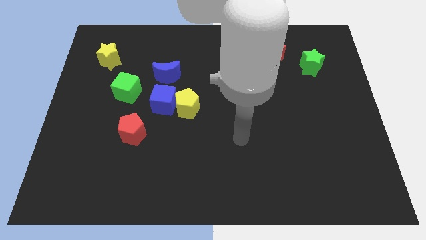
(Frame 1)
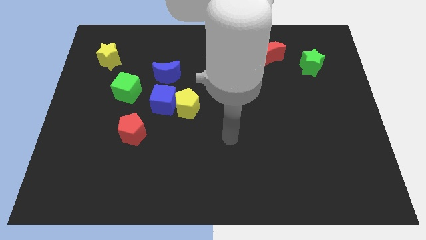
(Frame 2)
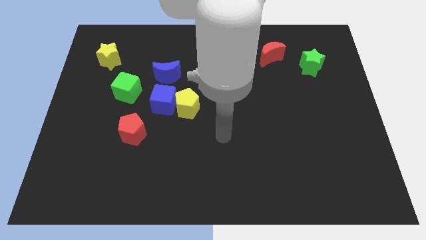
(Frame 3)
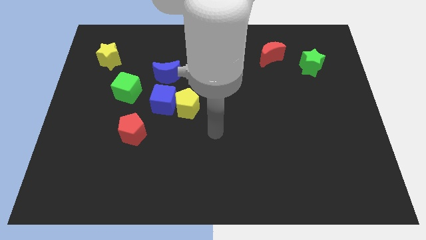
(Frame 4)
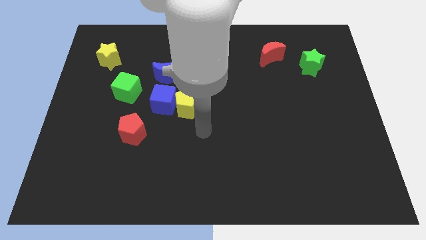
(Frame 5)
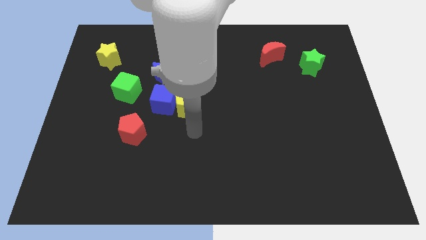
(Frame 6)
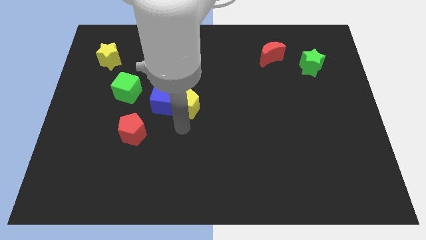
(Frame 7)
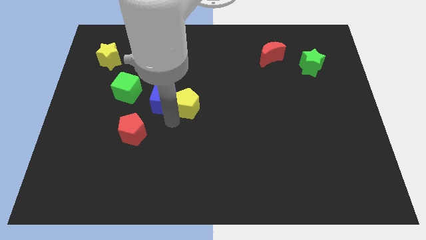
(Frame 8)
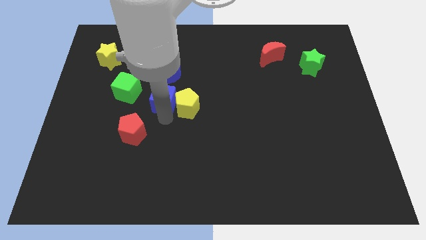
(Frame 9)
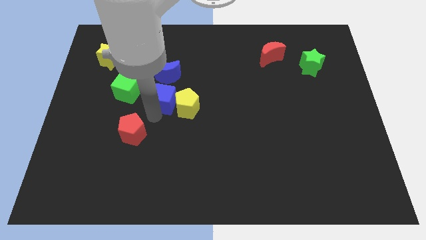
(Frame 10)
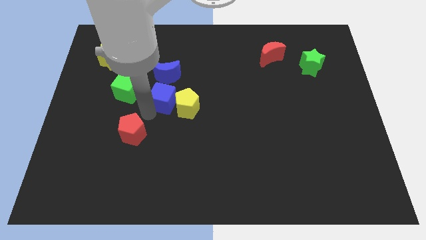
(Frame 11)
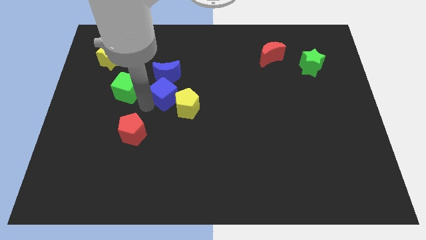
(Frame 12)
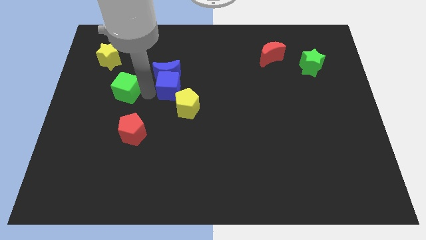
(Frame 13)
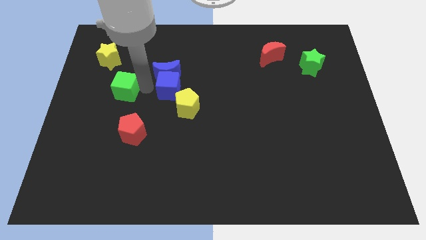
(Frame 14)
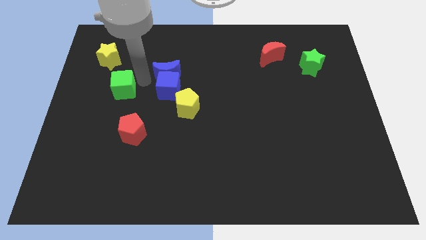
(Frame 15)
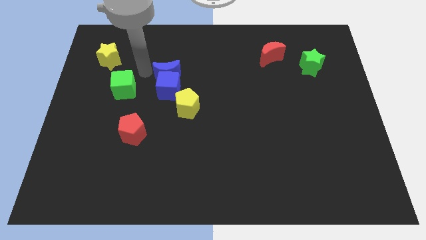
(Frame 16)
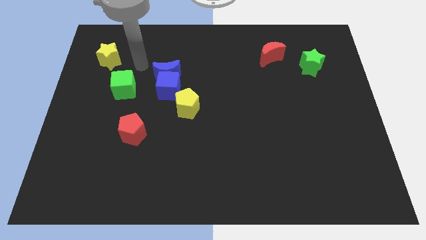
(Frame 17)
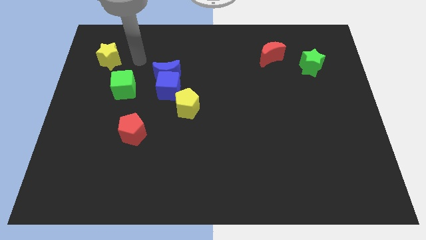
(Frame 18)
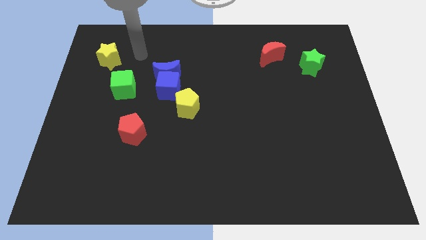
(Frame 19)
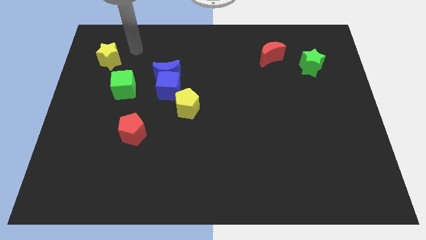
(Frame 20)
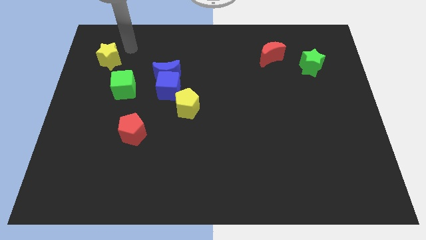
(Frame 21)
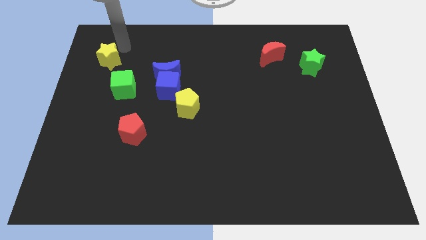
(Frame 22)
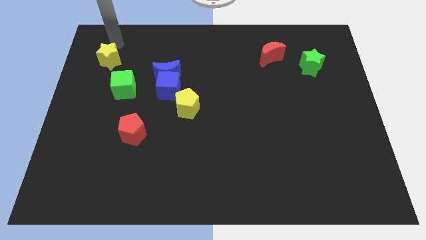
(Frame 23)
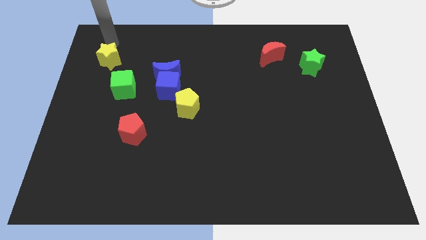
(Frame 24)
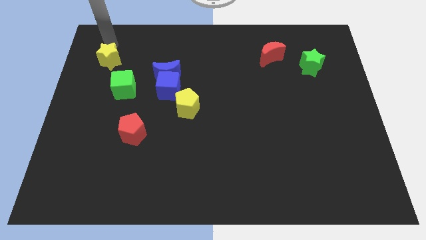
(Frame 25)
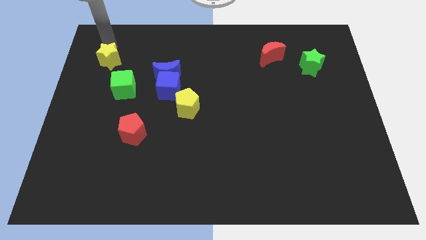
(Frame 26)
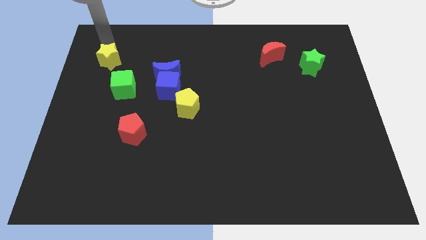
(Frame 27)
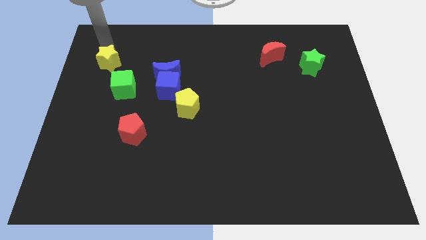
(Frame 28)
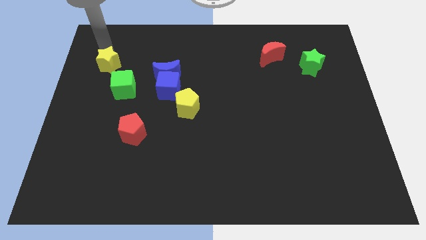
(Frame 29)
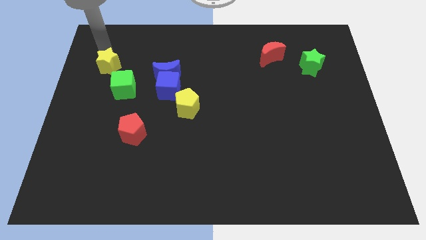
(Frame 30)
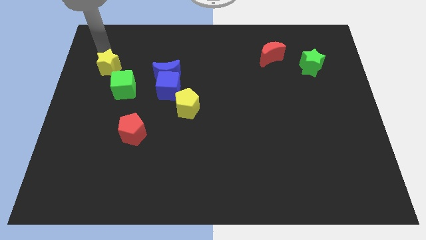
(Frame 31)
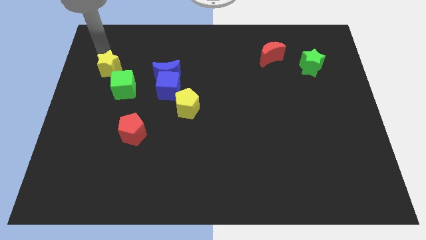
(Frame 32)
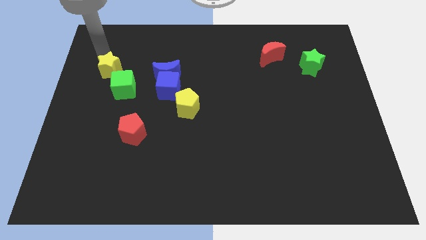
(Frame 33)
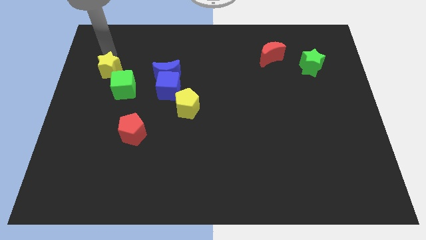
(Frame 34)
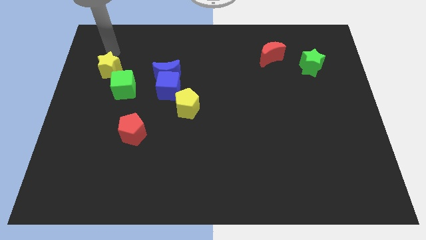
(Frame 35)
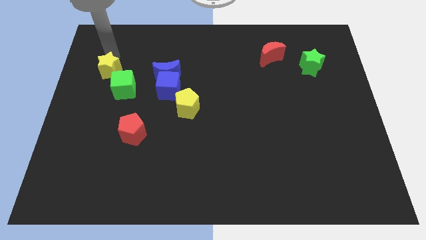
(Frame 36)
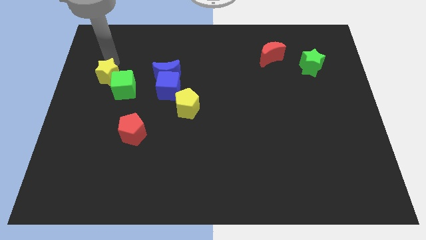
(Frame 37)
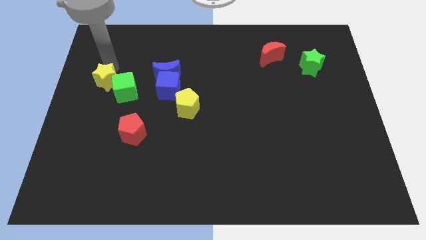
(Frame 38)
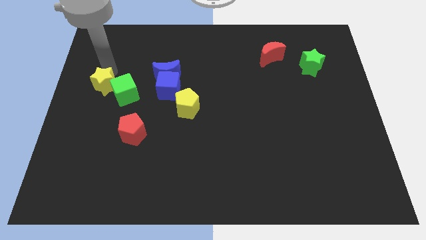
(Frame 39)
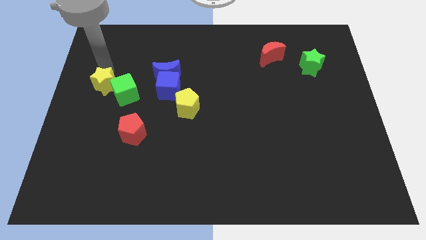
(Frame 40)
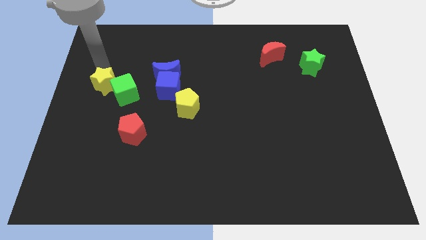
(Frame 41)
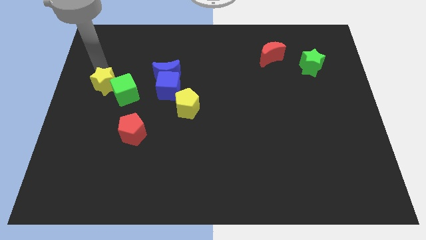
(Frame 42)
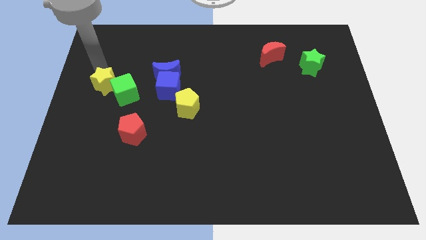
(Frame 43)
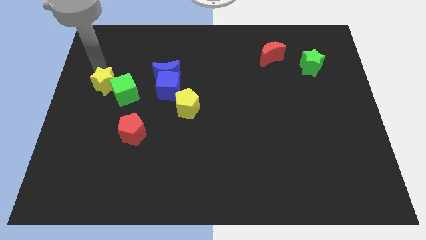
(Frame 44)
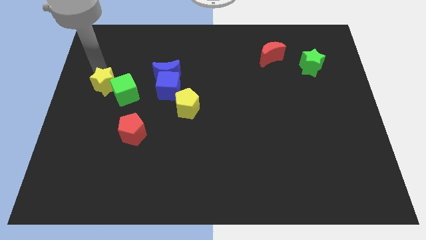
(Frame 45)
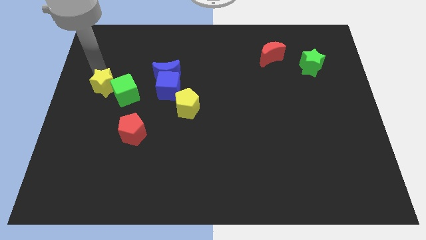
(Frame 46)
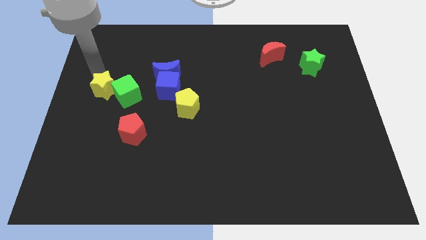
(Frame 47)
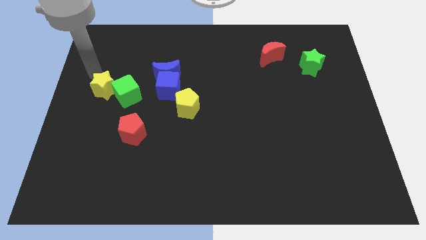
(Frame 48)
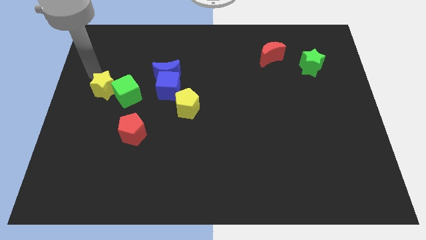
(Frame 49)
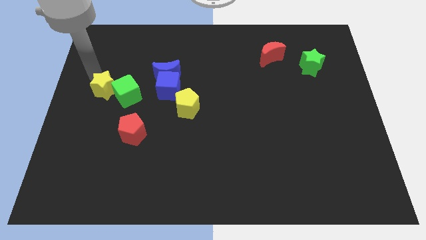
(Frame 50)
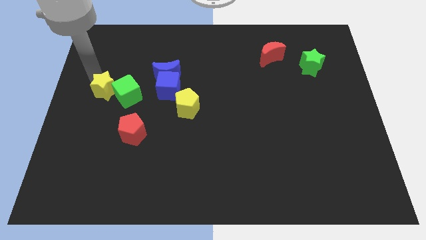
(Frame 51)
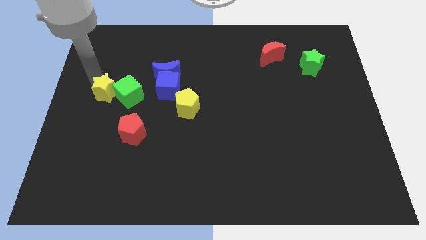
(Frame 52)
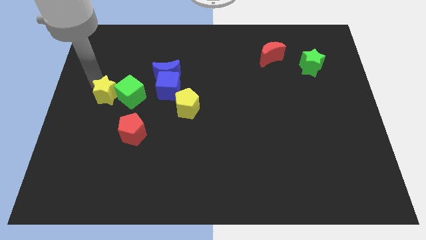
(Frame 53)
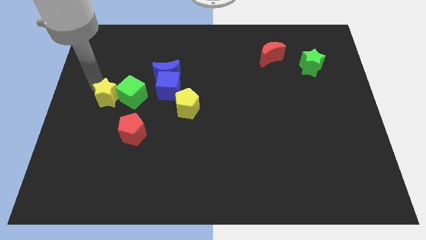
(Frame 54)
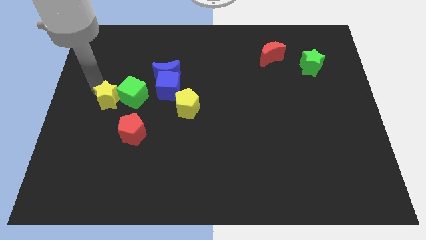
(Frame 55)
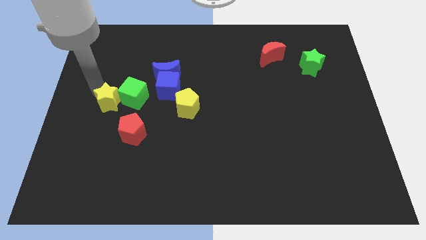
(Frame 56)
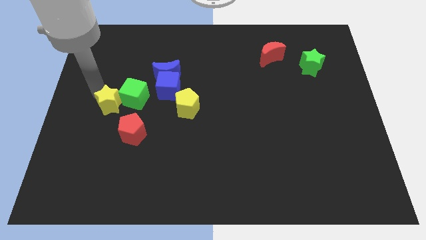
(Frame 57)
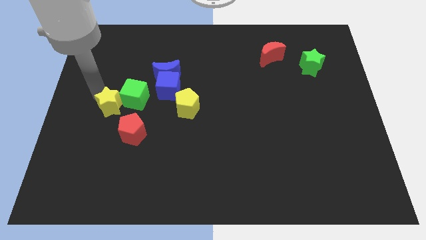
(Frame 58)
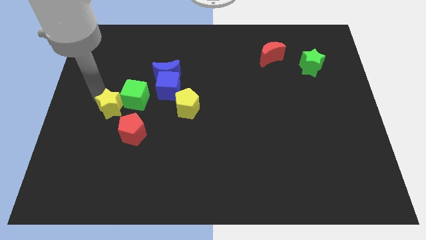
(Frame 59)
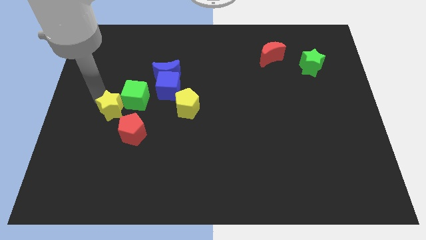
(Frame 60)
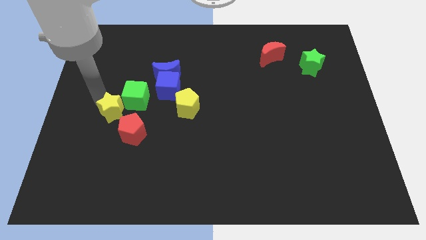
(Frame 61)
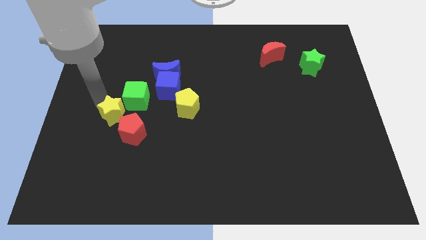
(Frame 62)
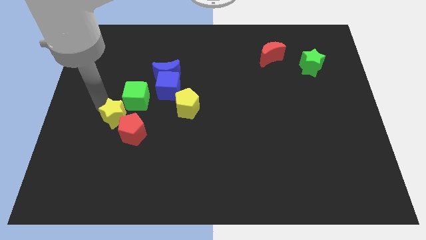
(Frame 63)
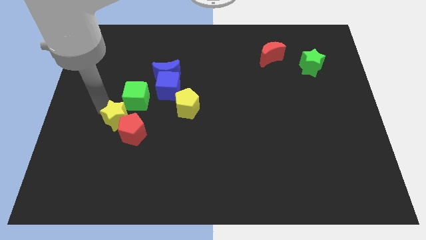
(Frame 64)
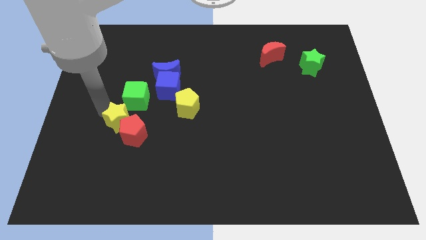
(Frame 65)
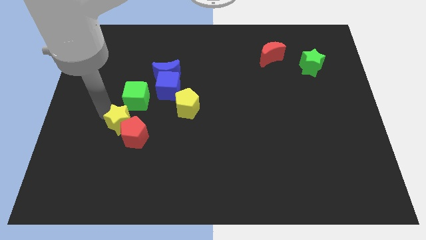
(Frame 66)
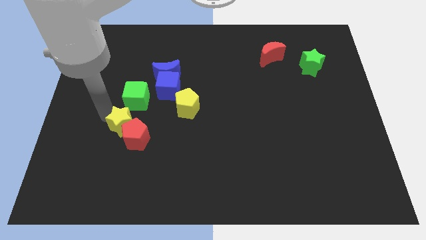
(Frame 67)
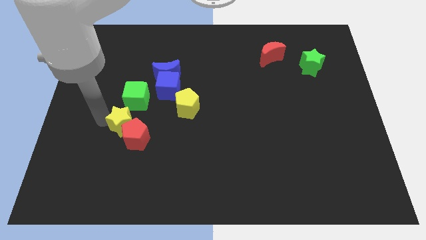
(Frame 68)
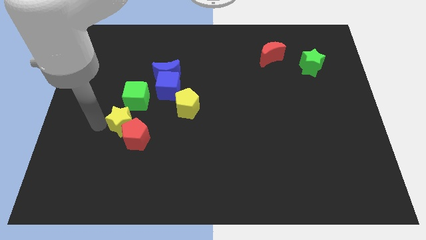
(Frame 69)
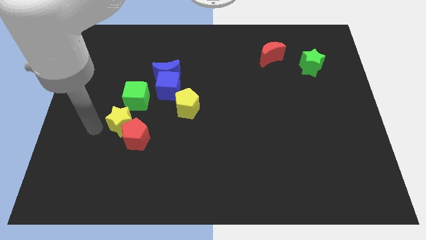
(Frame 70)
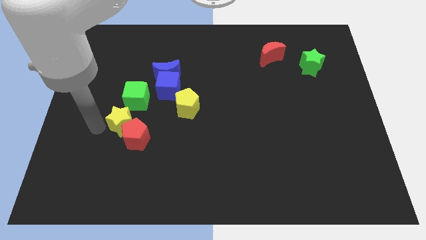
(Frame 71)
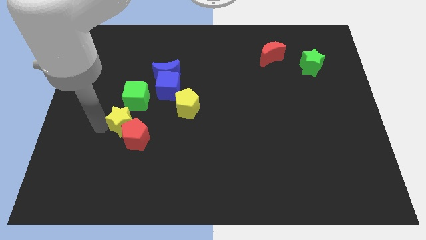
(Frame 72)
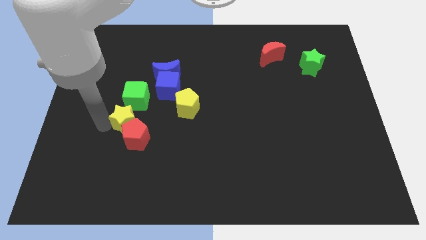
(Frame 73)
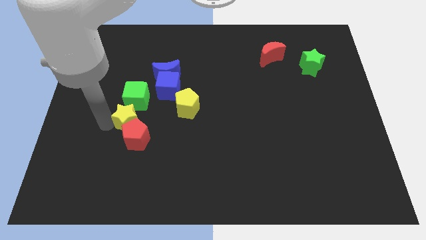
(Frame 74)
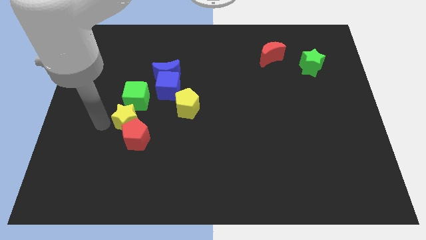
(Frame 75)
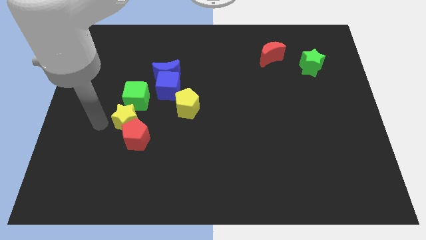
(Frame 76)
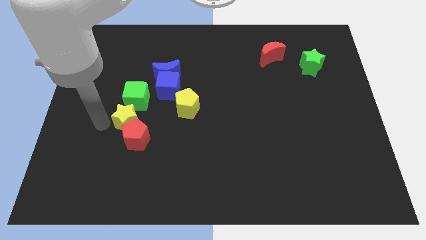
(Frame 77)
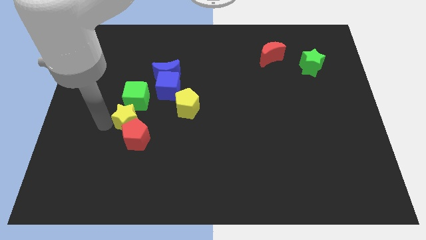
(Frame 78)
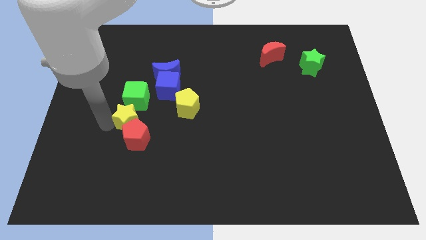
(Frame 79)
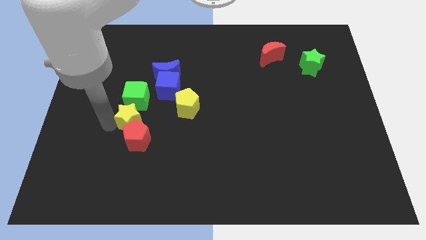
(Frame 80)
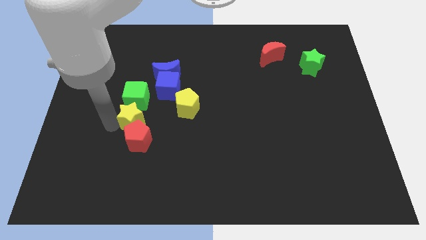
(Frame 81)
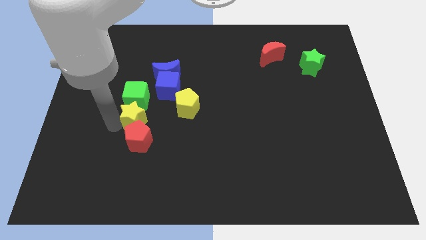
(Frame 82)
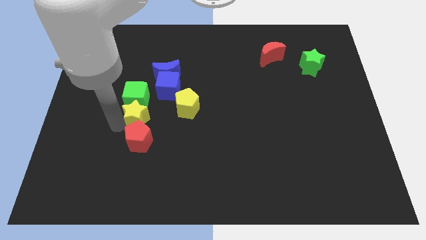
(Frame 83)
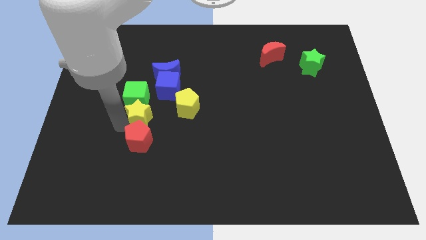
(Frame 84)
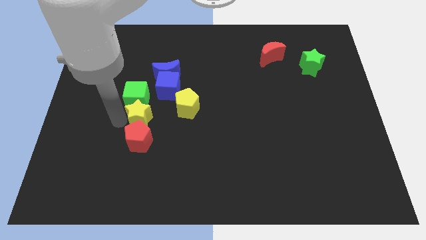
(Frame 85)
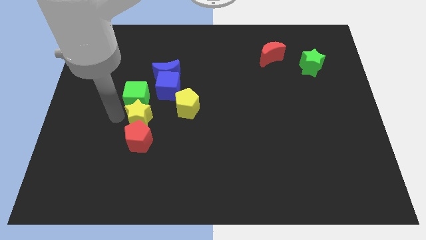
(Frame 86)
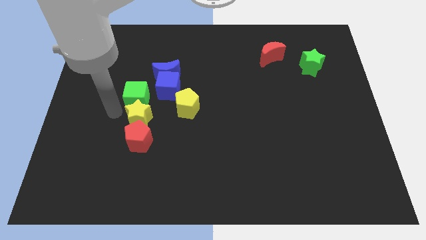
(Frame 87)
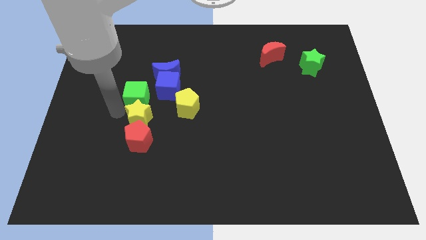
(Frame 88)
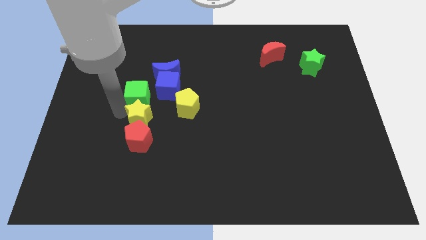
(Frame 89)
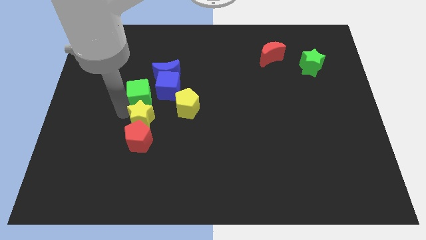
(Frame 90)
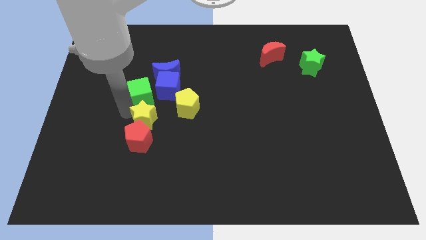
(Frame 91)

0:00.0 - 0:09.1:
put the yellow star to the bottom of the blue cube
